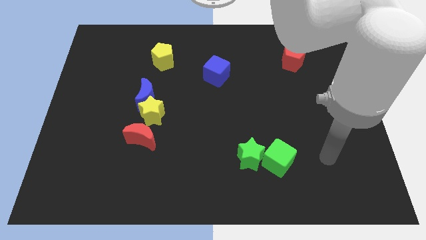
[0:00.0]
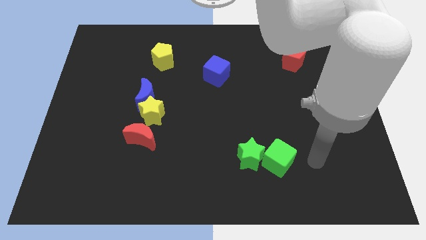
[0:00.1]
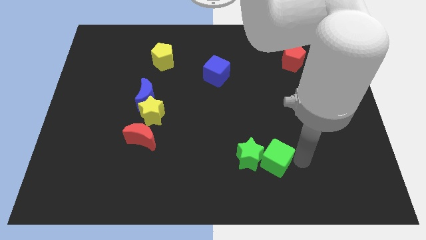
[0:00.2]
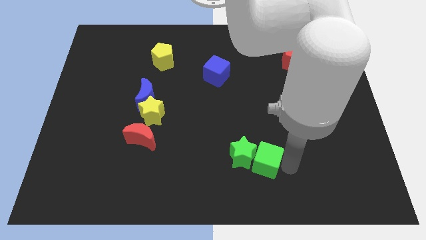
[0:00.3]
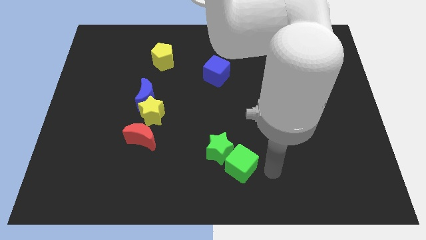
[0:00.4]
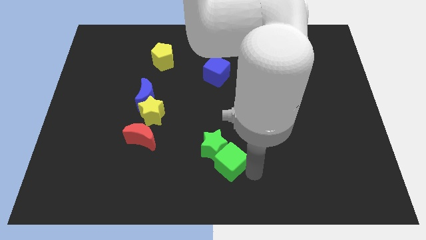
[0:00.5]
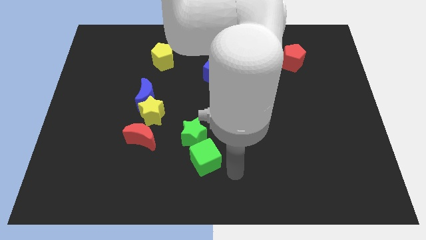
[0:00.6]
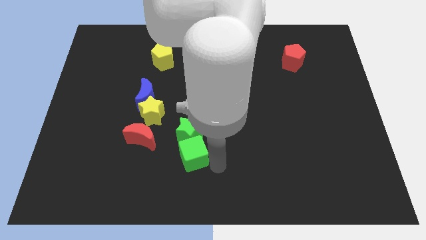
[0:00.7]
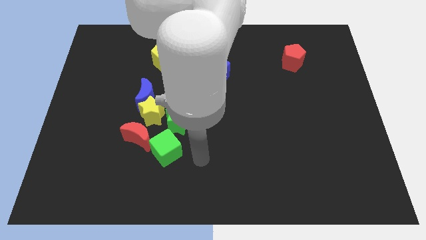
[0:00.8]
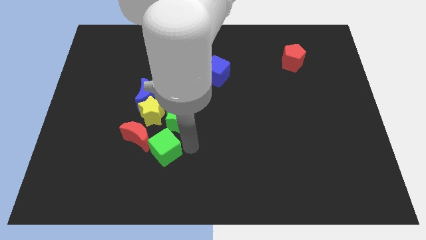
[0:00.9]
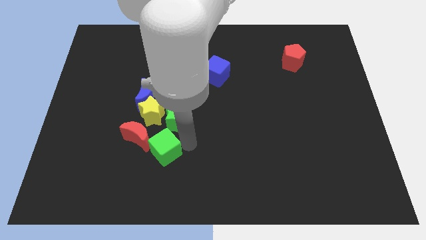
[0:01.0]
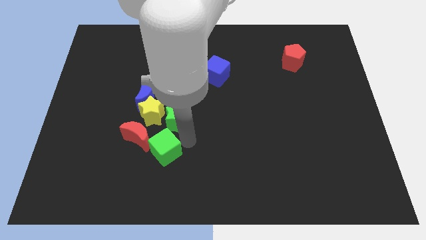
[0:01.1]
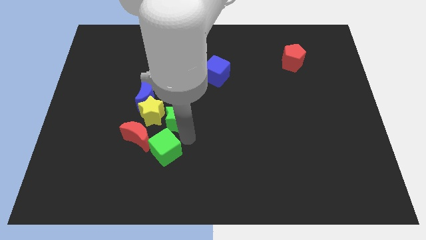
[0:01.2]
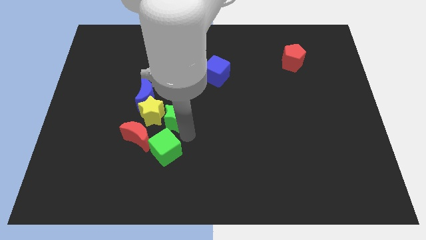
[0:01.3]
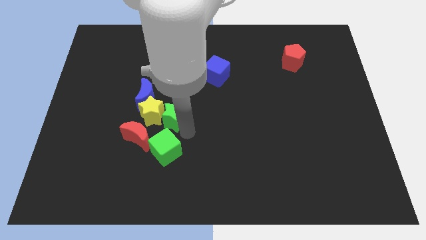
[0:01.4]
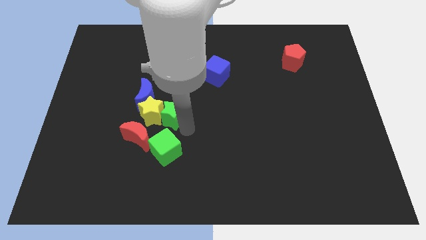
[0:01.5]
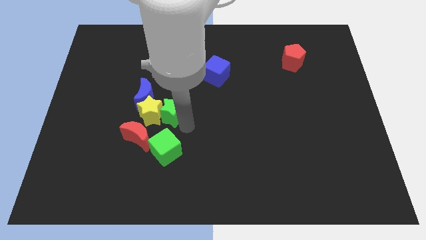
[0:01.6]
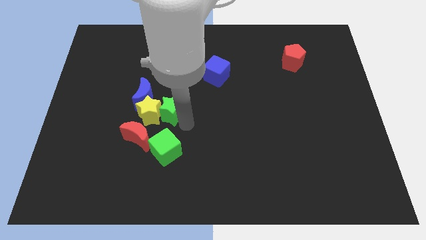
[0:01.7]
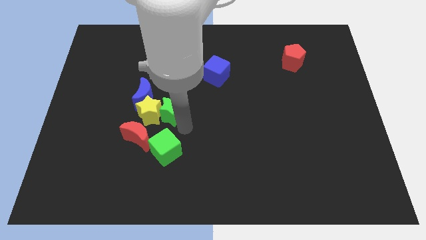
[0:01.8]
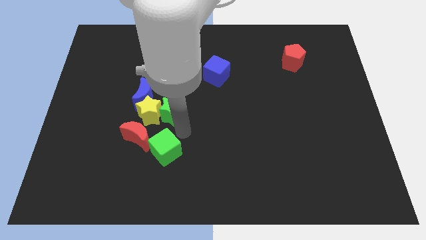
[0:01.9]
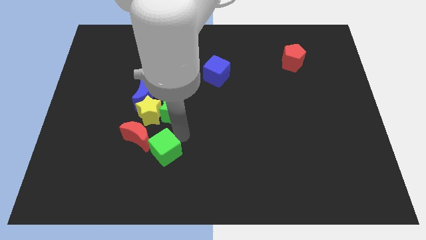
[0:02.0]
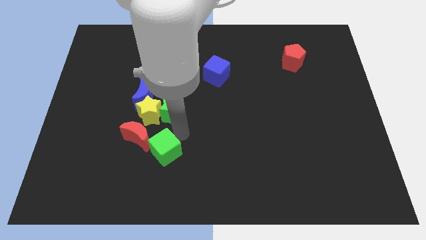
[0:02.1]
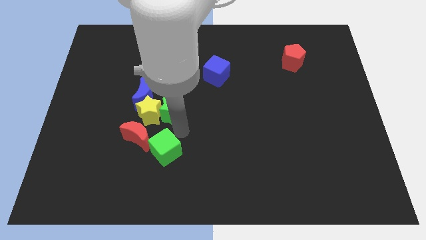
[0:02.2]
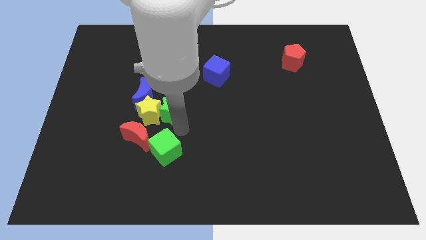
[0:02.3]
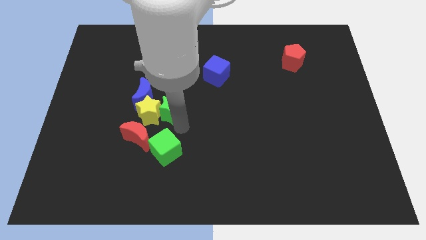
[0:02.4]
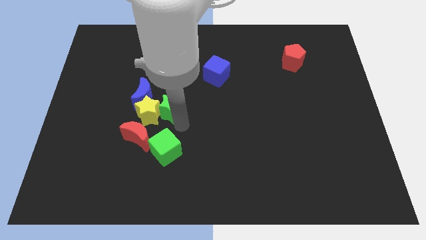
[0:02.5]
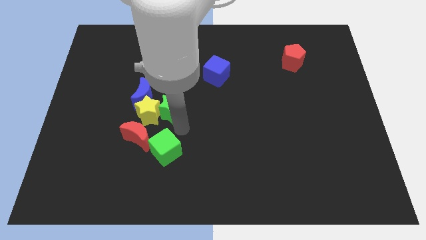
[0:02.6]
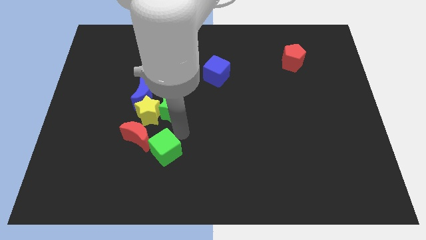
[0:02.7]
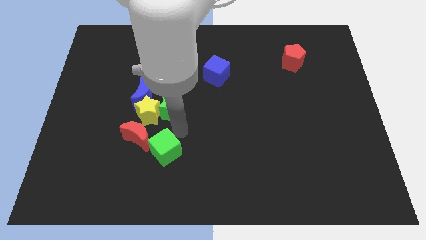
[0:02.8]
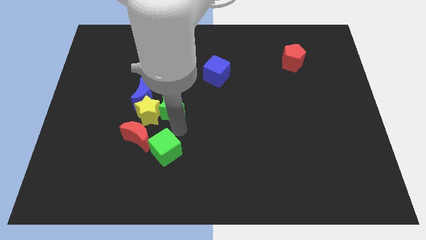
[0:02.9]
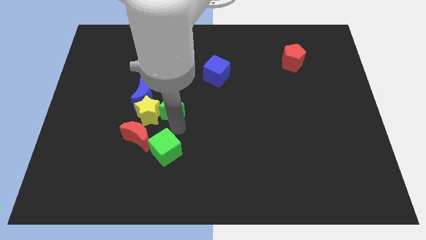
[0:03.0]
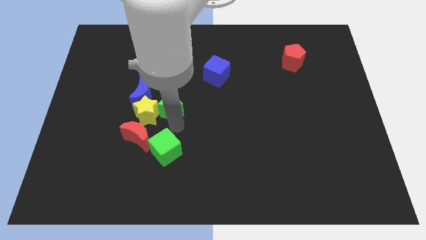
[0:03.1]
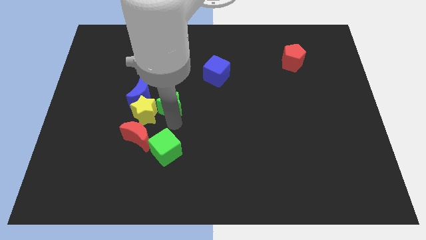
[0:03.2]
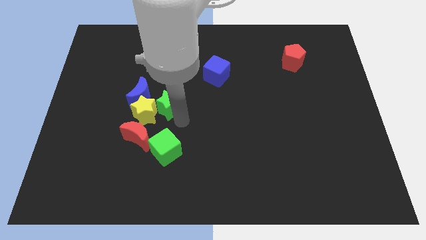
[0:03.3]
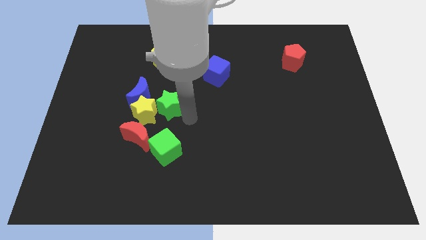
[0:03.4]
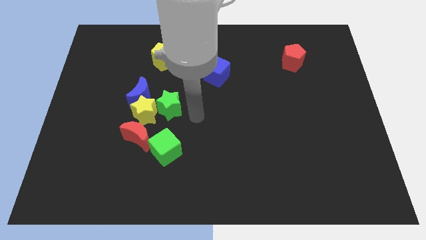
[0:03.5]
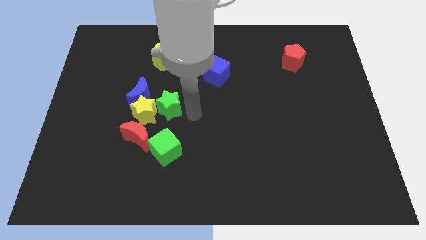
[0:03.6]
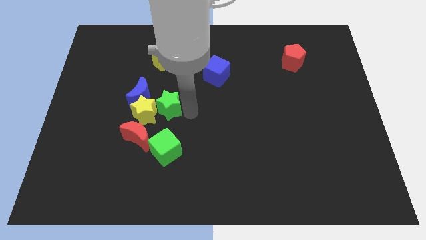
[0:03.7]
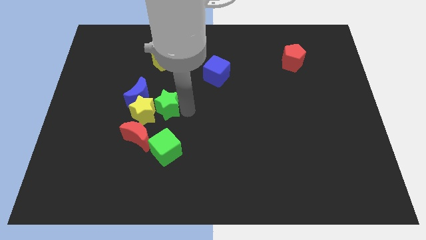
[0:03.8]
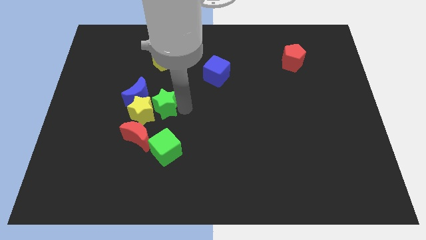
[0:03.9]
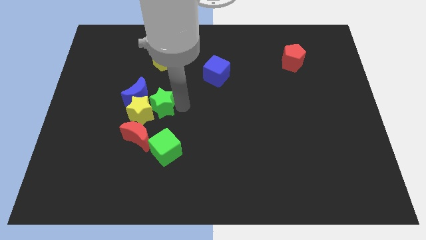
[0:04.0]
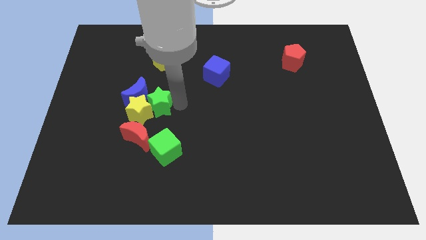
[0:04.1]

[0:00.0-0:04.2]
slide the green star towards the blue moon

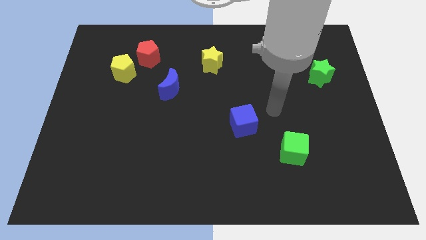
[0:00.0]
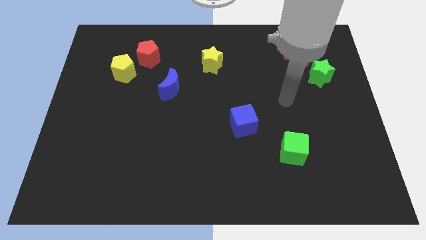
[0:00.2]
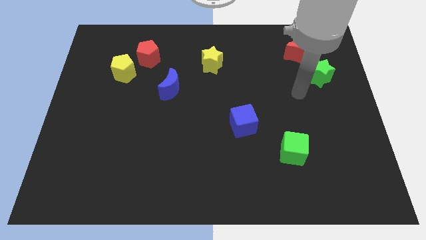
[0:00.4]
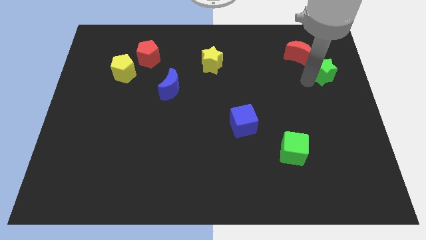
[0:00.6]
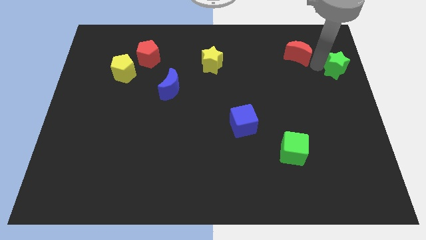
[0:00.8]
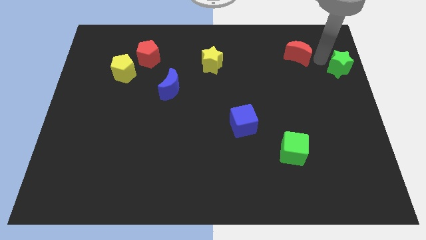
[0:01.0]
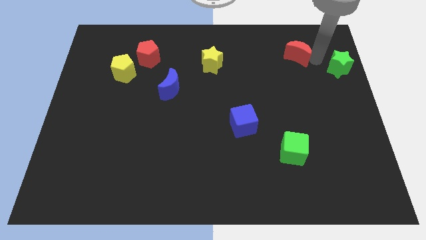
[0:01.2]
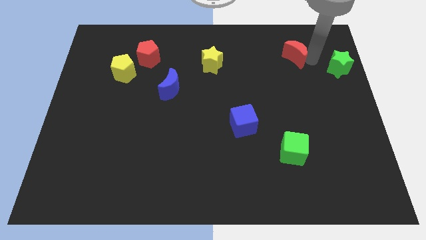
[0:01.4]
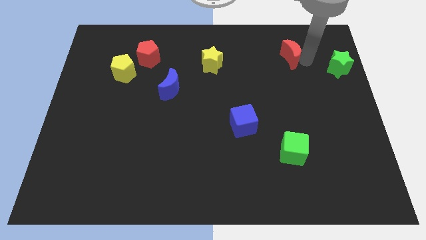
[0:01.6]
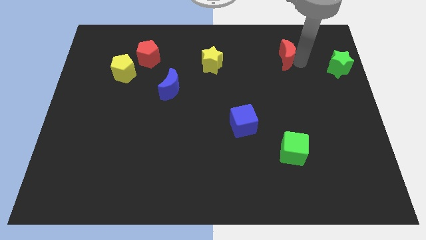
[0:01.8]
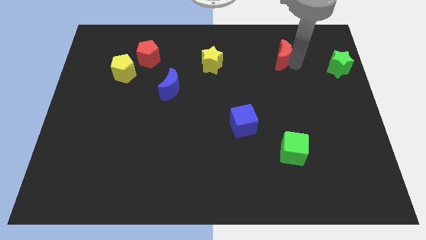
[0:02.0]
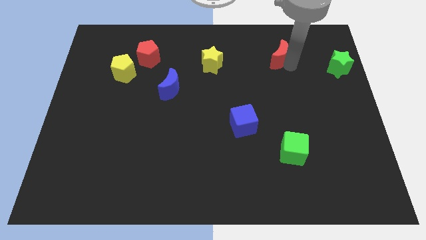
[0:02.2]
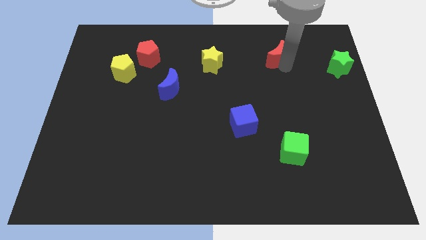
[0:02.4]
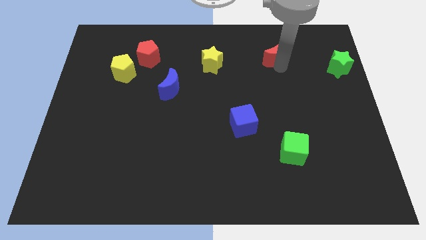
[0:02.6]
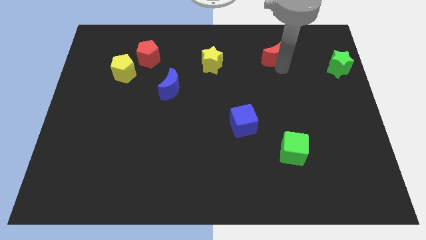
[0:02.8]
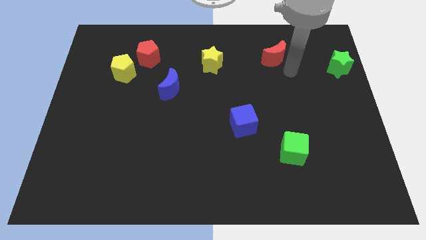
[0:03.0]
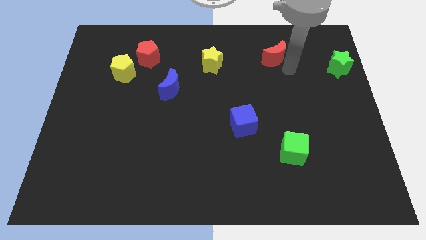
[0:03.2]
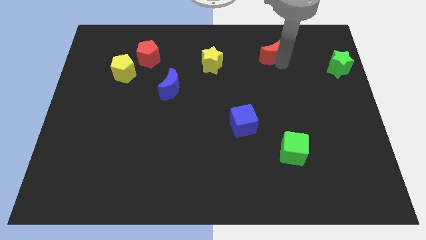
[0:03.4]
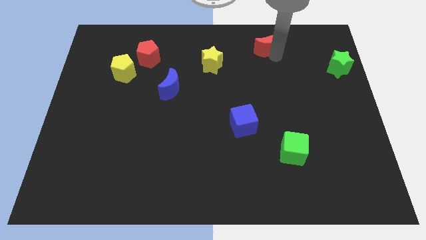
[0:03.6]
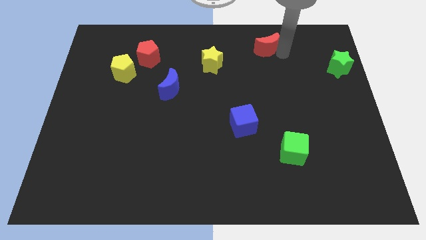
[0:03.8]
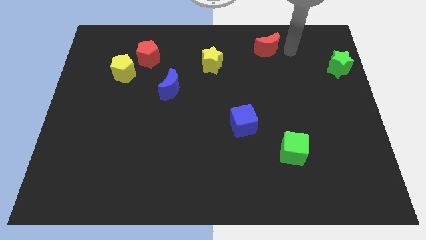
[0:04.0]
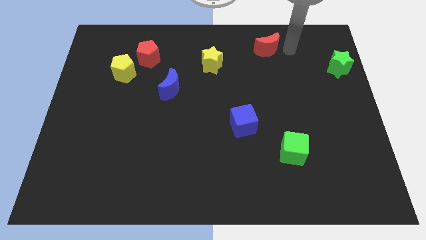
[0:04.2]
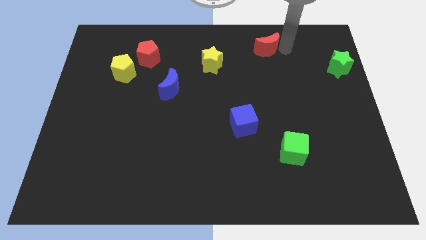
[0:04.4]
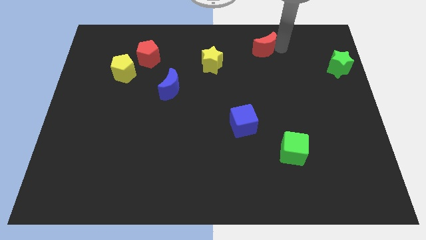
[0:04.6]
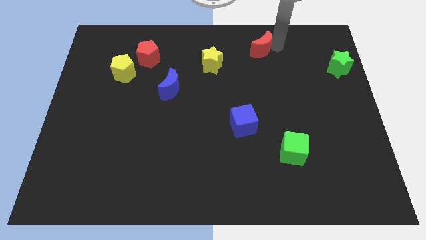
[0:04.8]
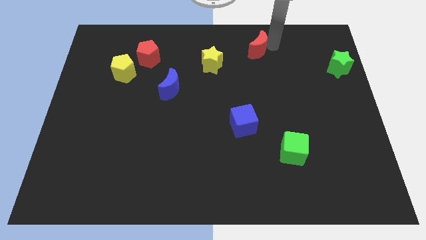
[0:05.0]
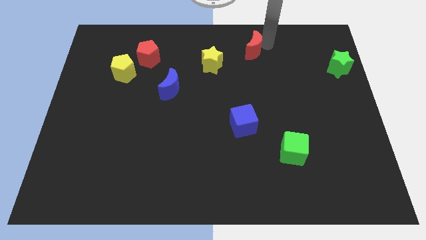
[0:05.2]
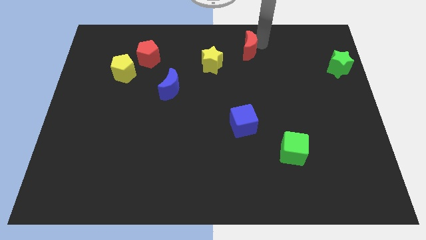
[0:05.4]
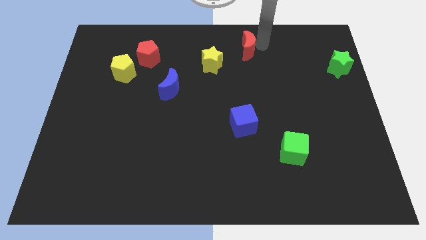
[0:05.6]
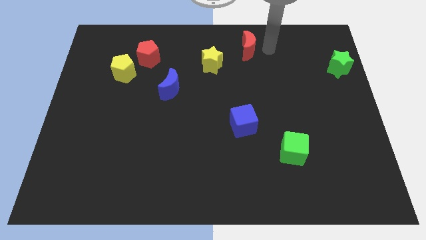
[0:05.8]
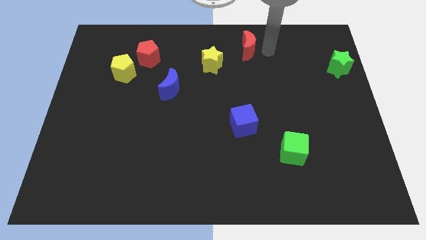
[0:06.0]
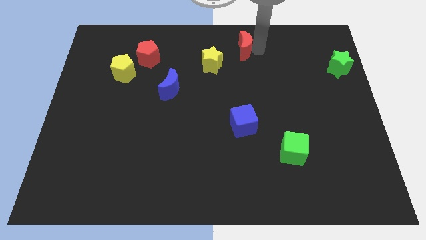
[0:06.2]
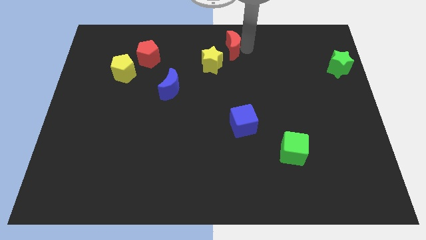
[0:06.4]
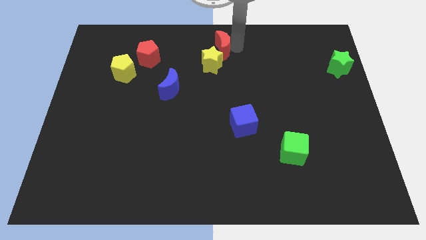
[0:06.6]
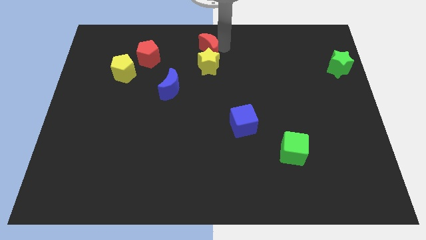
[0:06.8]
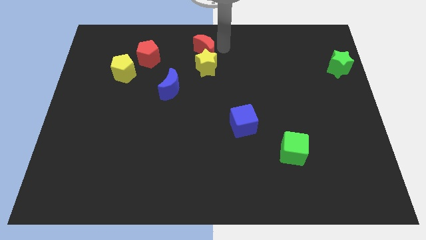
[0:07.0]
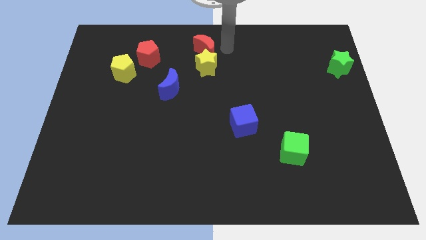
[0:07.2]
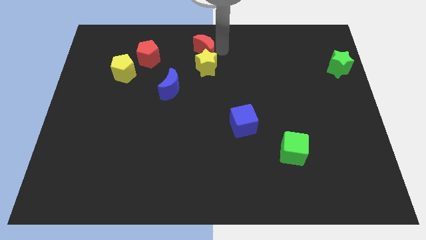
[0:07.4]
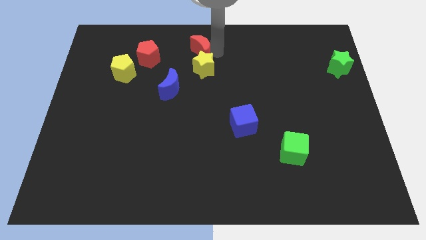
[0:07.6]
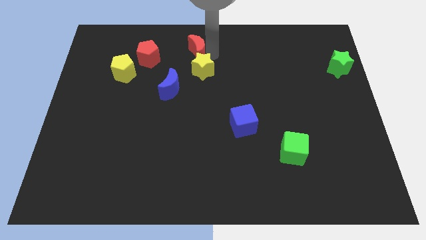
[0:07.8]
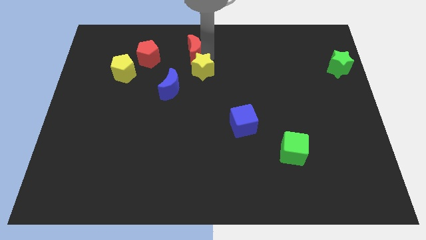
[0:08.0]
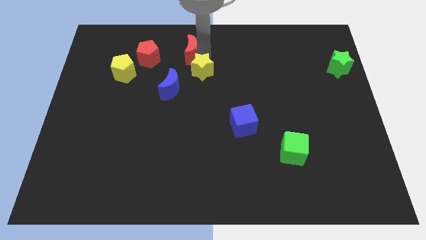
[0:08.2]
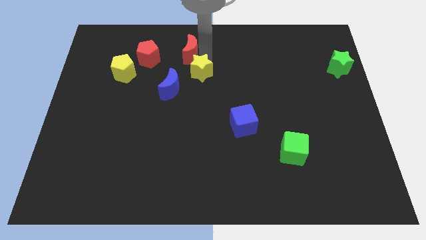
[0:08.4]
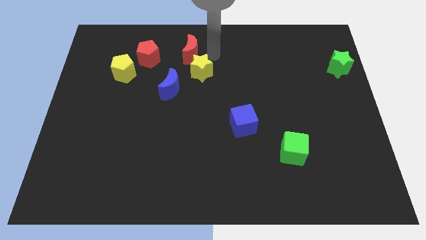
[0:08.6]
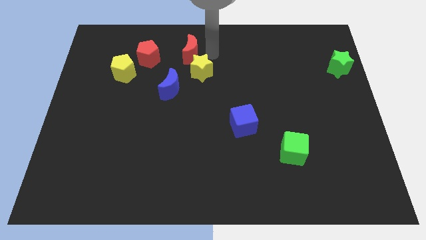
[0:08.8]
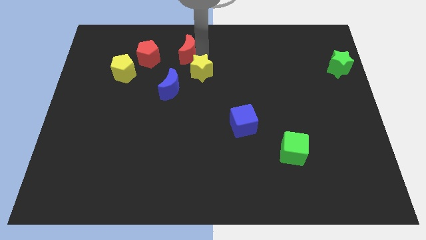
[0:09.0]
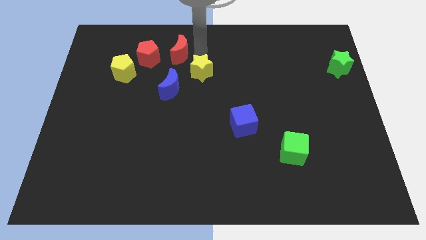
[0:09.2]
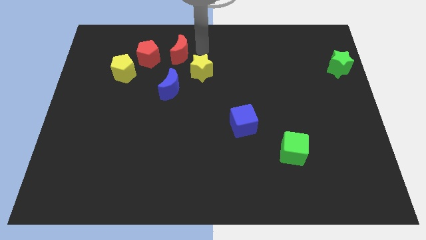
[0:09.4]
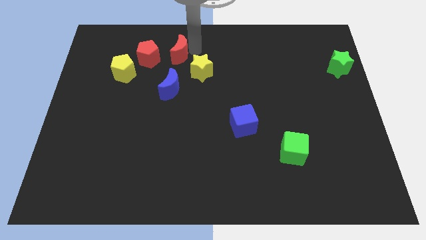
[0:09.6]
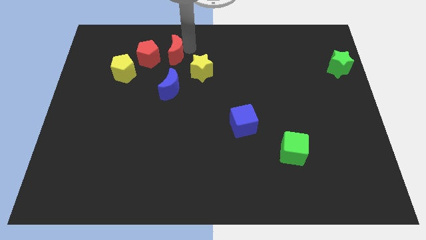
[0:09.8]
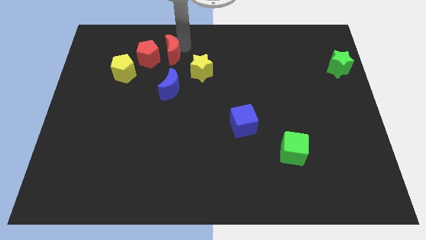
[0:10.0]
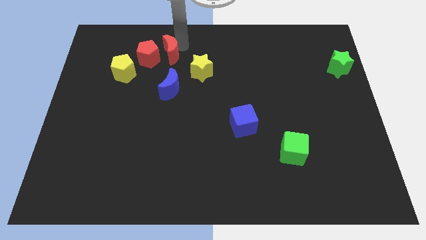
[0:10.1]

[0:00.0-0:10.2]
move the red moon to the red pentagon
